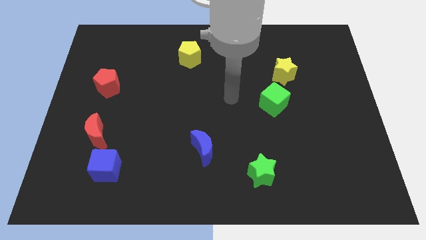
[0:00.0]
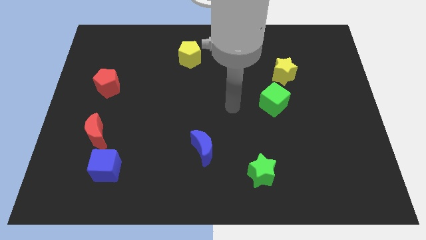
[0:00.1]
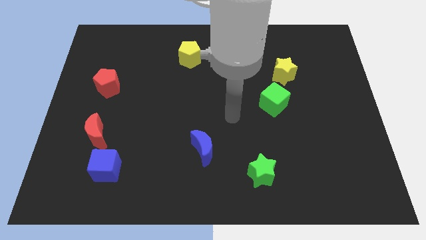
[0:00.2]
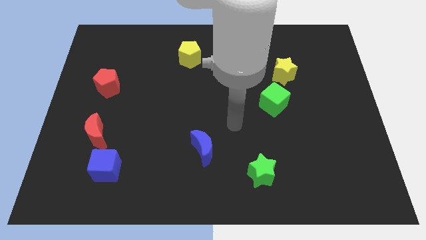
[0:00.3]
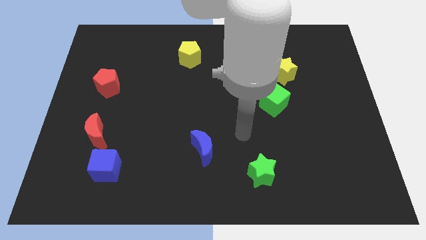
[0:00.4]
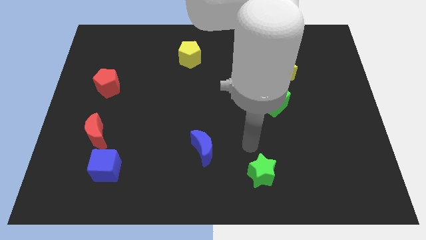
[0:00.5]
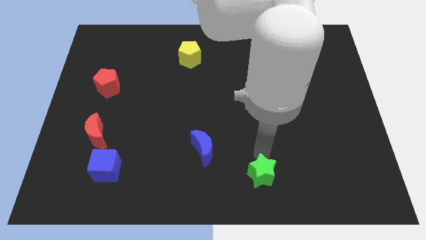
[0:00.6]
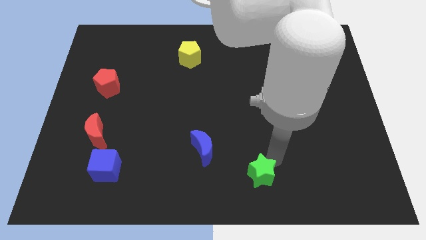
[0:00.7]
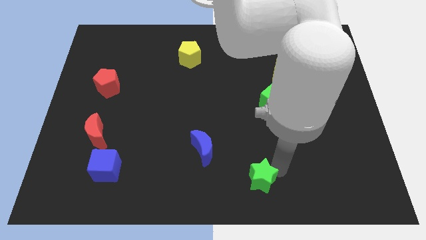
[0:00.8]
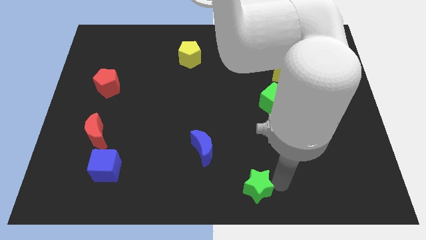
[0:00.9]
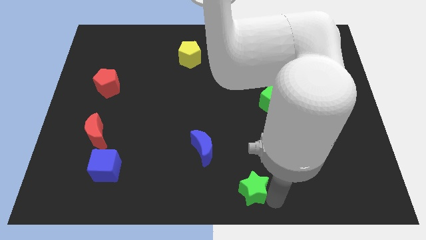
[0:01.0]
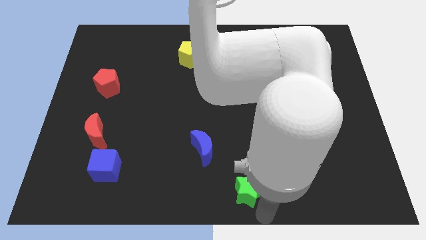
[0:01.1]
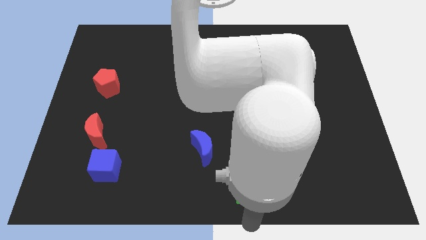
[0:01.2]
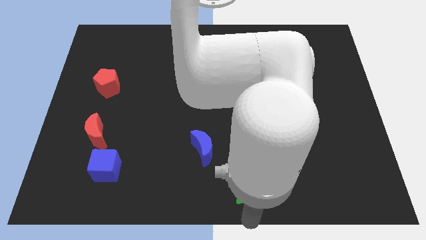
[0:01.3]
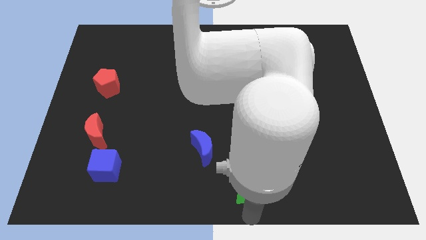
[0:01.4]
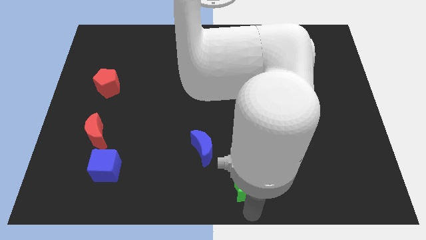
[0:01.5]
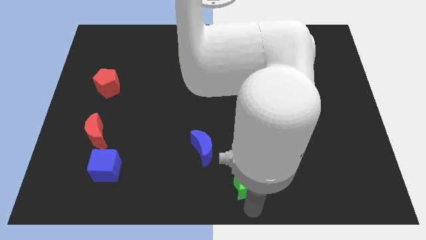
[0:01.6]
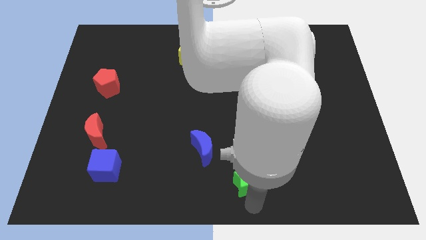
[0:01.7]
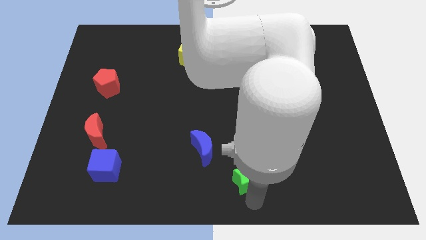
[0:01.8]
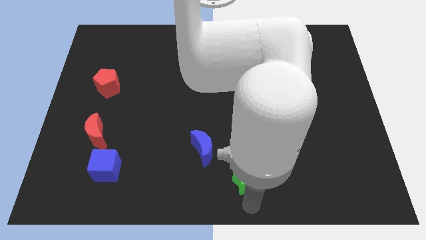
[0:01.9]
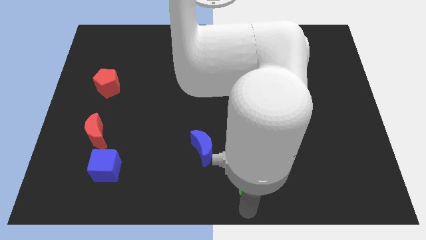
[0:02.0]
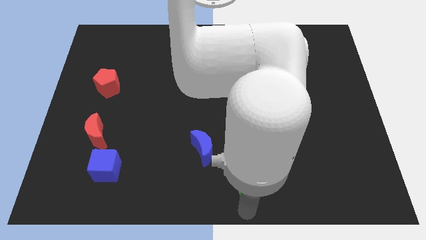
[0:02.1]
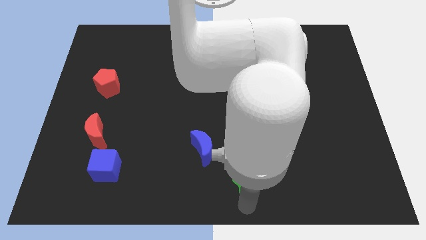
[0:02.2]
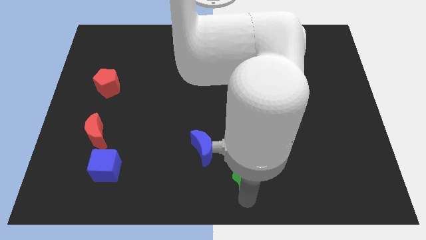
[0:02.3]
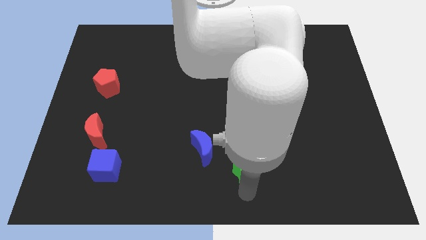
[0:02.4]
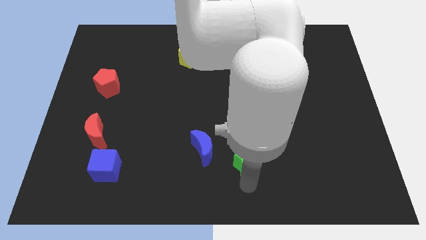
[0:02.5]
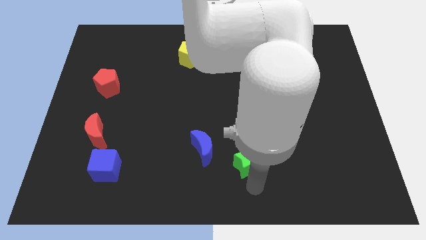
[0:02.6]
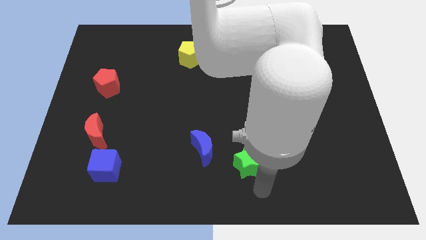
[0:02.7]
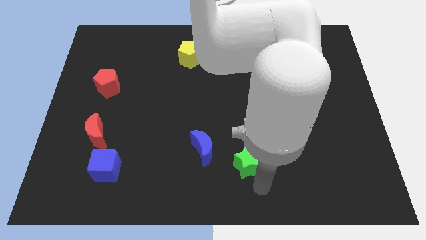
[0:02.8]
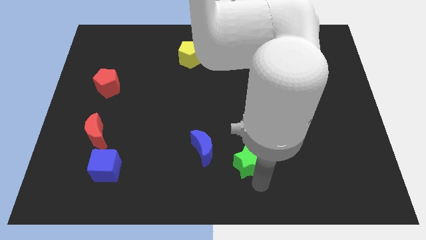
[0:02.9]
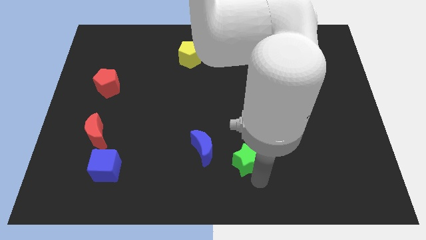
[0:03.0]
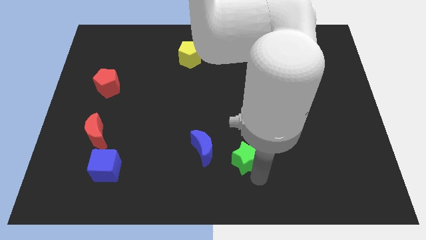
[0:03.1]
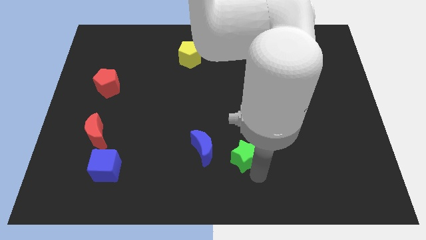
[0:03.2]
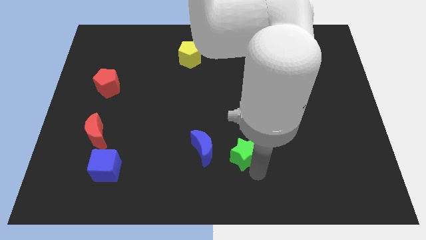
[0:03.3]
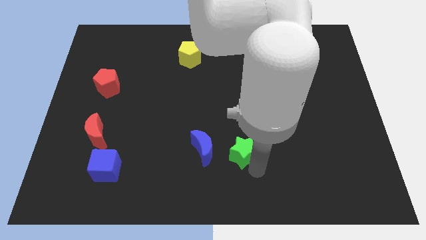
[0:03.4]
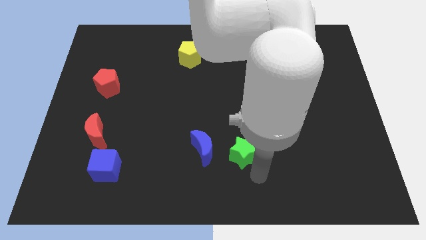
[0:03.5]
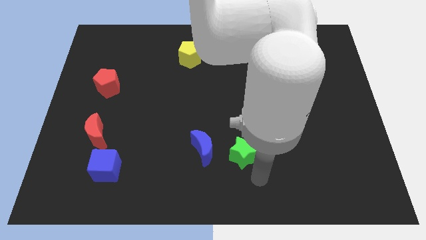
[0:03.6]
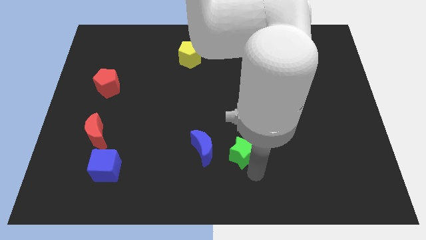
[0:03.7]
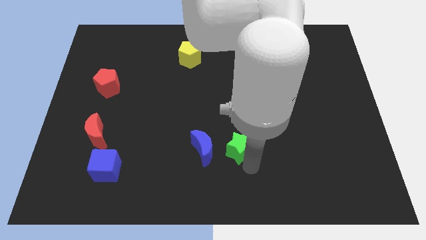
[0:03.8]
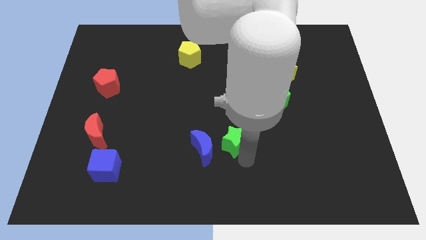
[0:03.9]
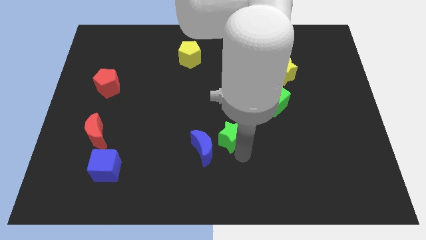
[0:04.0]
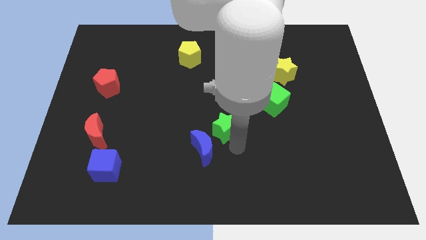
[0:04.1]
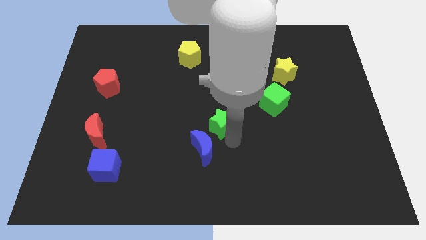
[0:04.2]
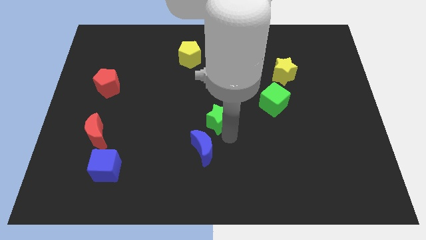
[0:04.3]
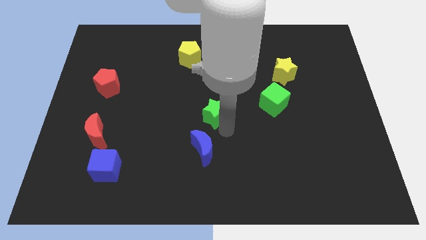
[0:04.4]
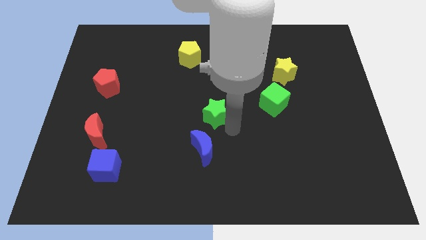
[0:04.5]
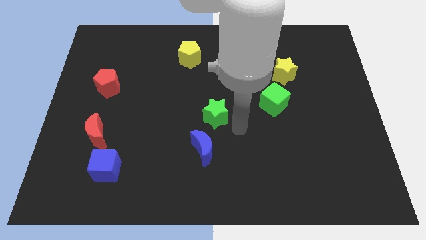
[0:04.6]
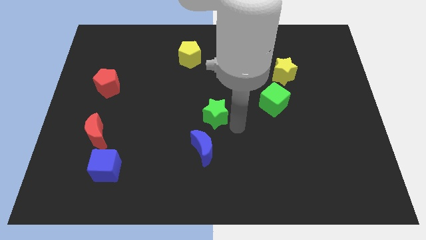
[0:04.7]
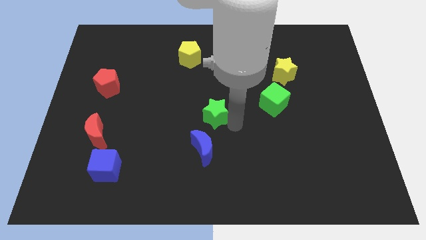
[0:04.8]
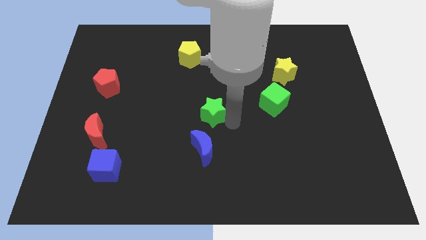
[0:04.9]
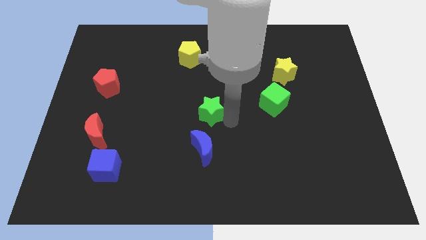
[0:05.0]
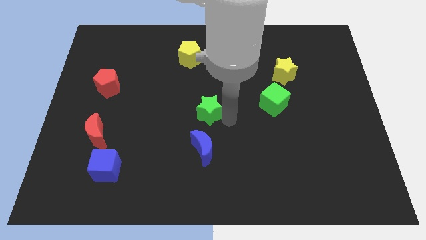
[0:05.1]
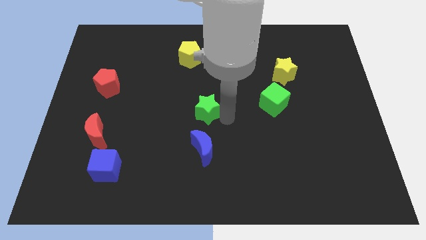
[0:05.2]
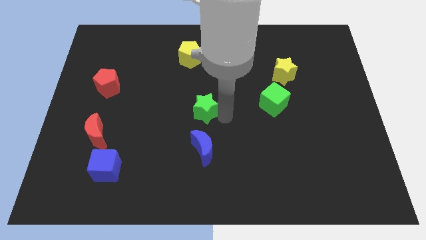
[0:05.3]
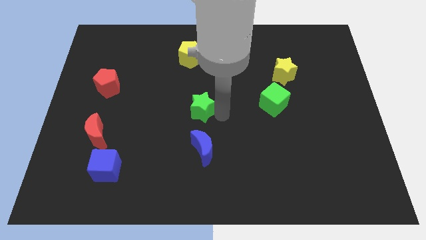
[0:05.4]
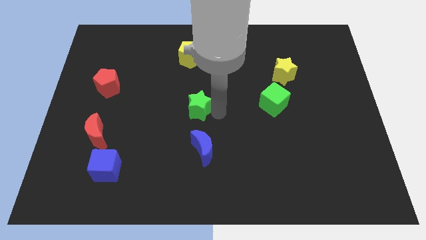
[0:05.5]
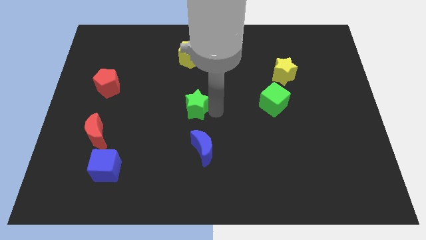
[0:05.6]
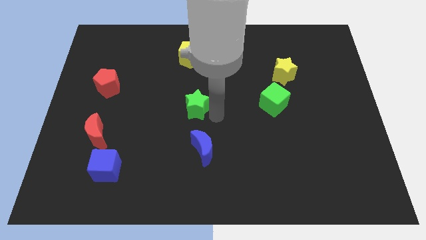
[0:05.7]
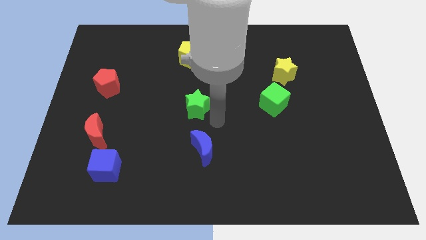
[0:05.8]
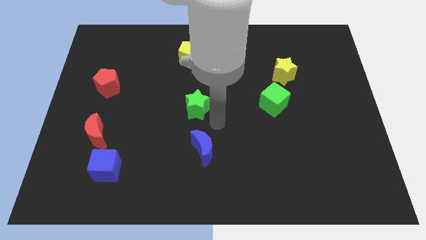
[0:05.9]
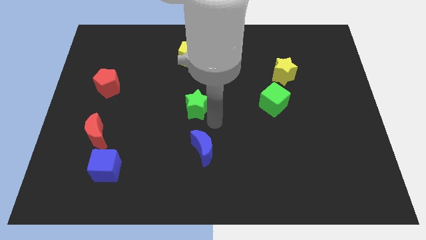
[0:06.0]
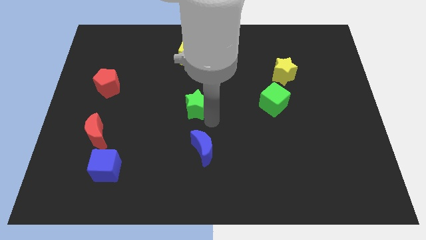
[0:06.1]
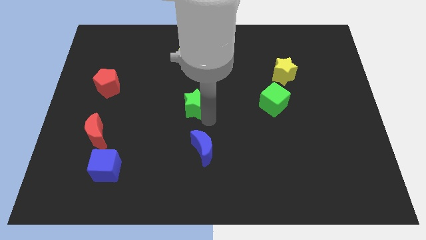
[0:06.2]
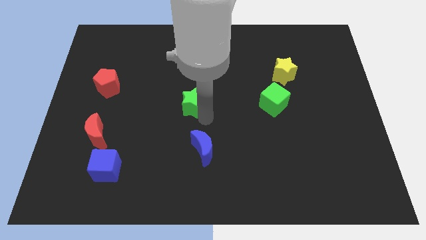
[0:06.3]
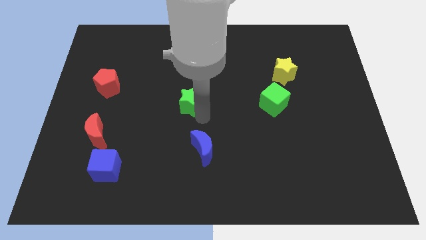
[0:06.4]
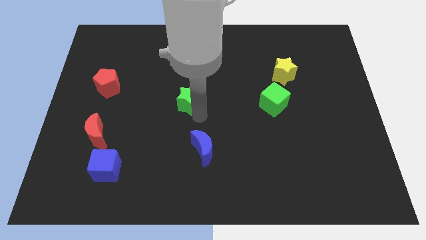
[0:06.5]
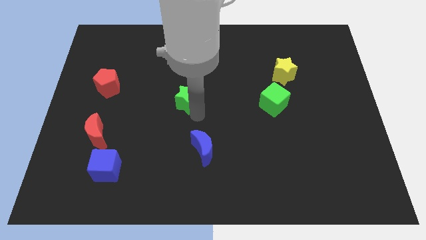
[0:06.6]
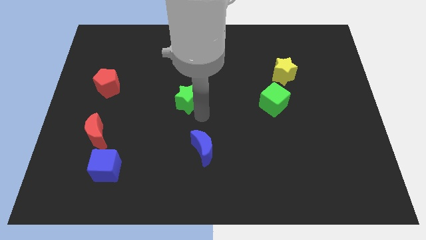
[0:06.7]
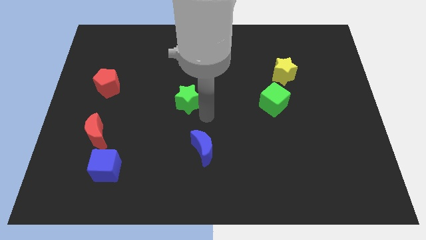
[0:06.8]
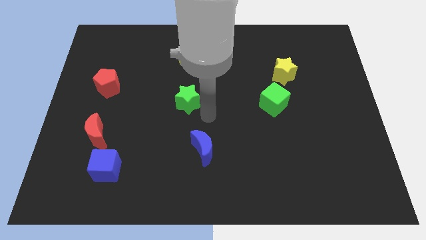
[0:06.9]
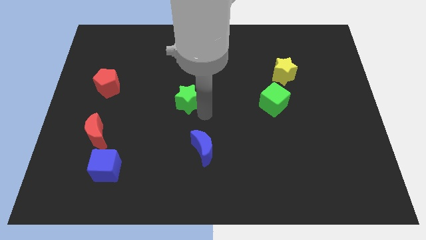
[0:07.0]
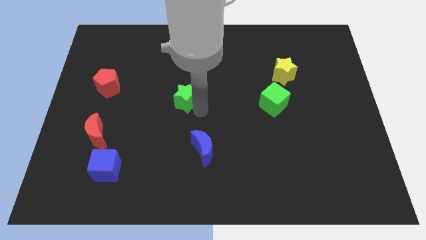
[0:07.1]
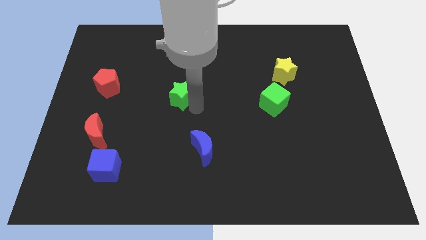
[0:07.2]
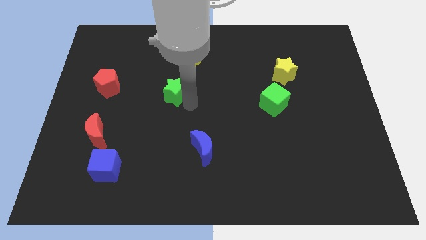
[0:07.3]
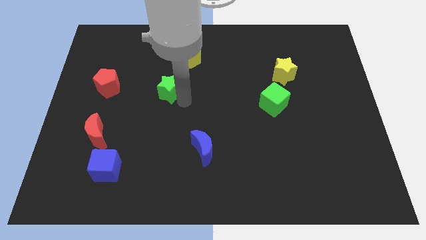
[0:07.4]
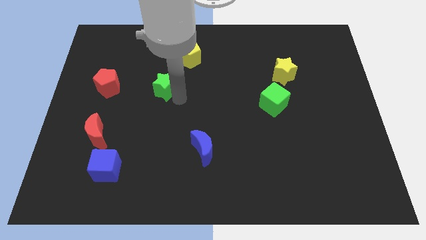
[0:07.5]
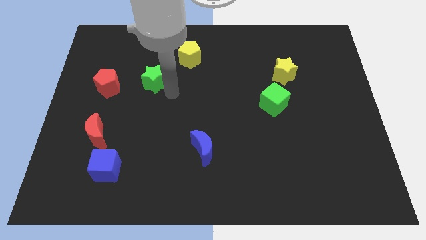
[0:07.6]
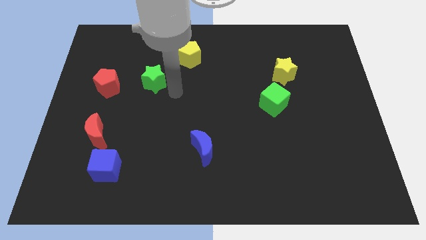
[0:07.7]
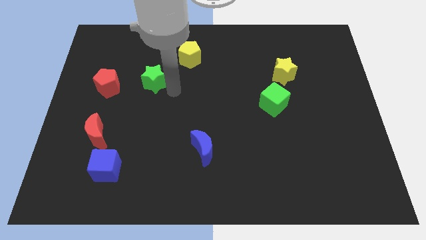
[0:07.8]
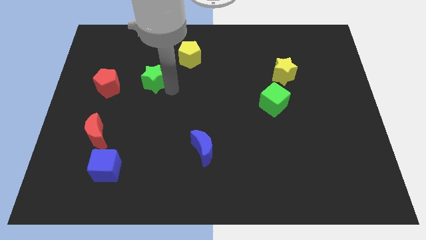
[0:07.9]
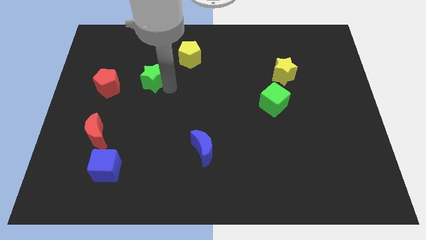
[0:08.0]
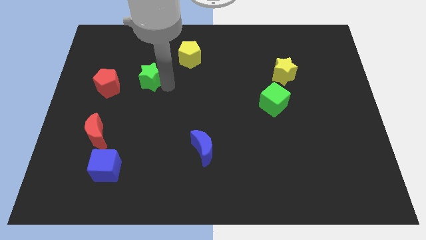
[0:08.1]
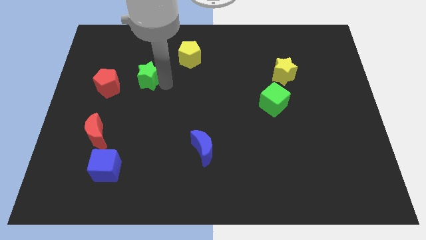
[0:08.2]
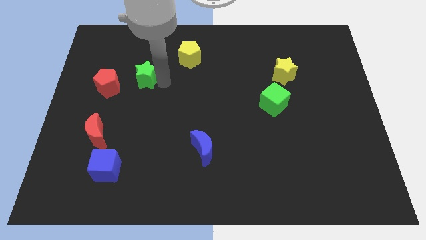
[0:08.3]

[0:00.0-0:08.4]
push the green star diagonally up and to the right of the red pentagon
